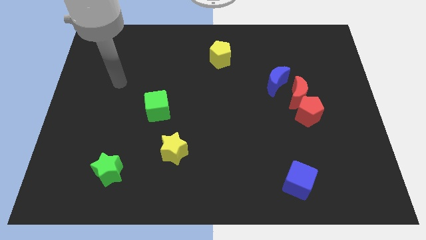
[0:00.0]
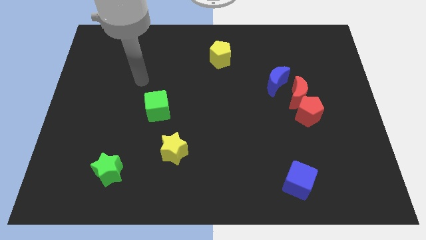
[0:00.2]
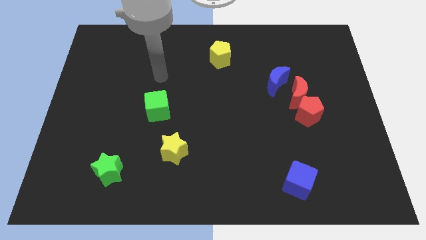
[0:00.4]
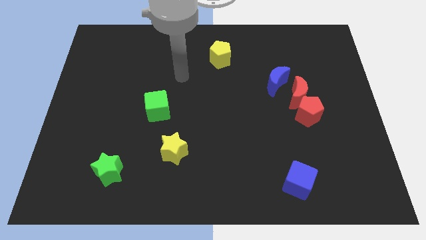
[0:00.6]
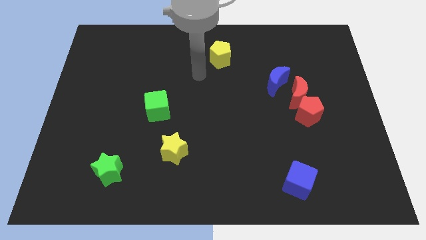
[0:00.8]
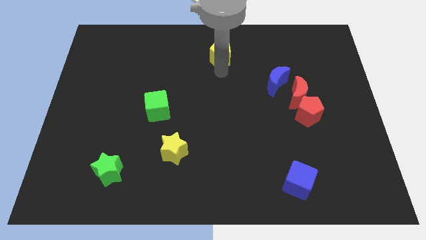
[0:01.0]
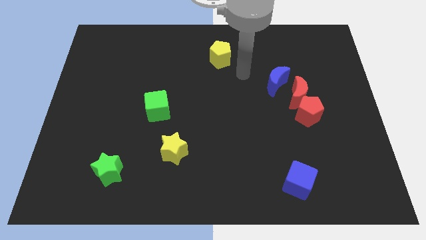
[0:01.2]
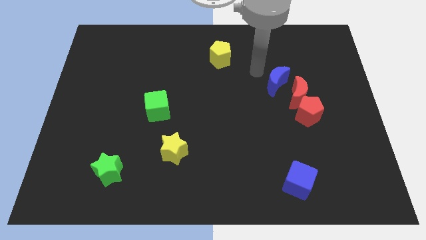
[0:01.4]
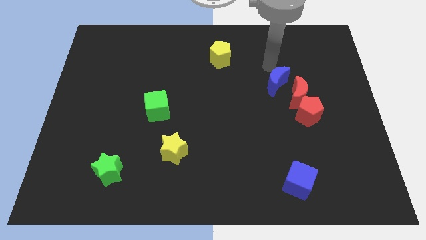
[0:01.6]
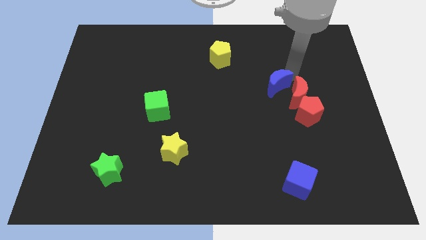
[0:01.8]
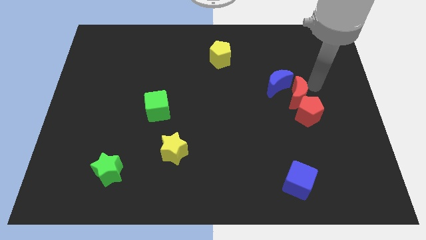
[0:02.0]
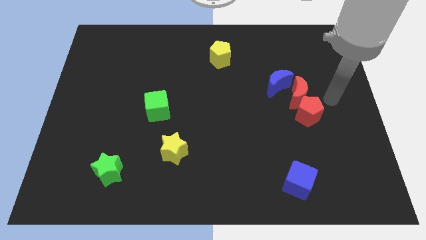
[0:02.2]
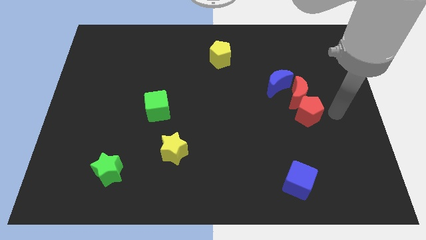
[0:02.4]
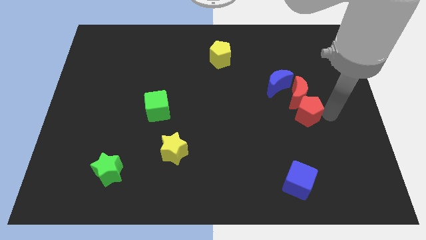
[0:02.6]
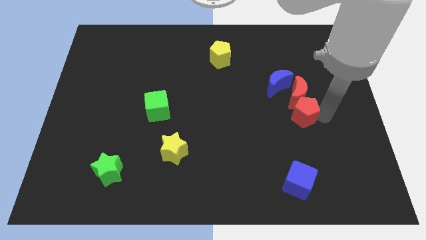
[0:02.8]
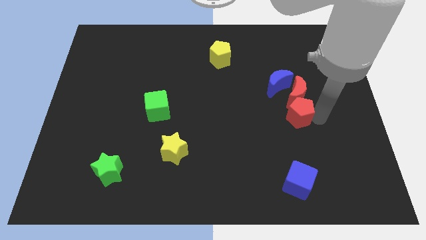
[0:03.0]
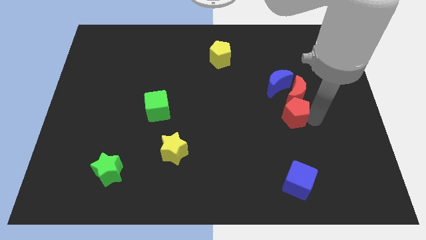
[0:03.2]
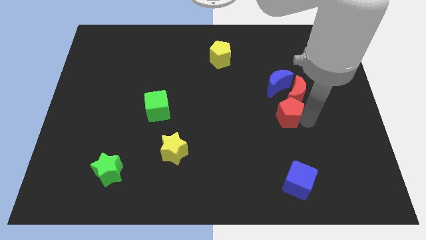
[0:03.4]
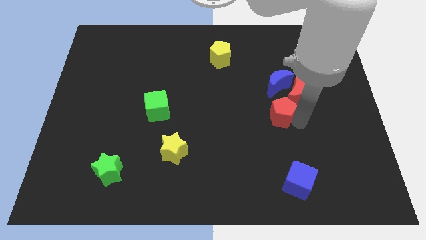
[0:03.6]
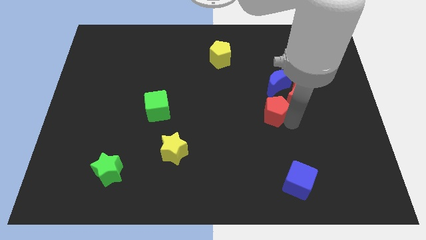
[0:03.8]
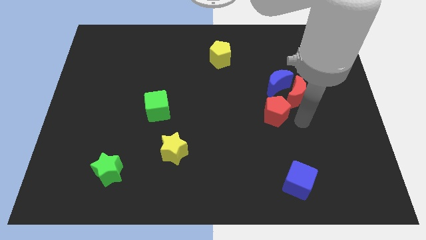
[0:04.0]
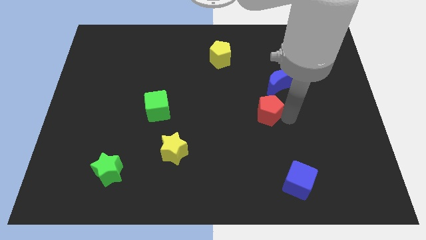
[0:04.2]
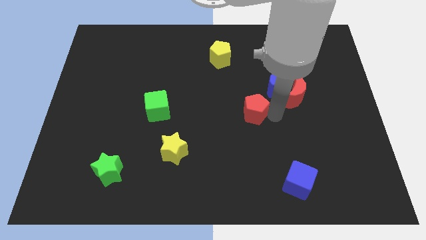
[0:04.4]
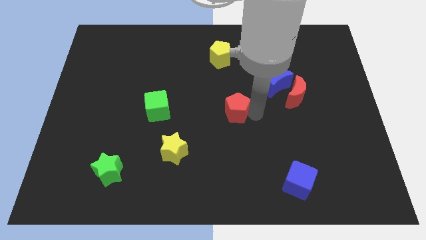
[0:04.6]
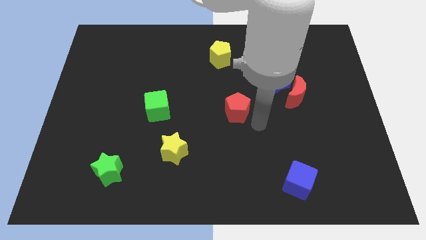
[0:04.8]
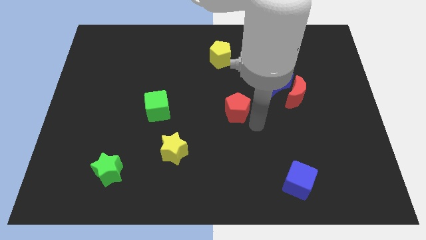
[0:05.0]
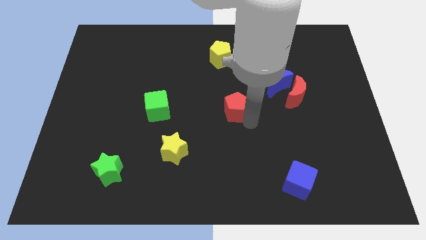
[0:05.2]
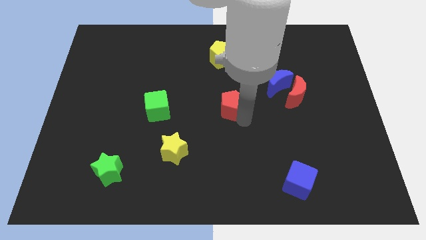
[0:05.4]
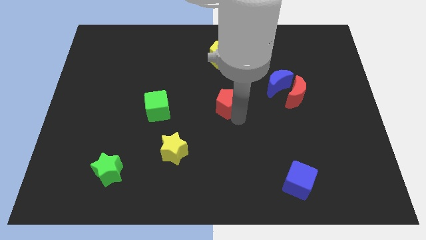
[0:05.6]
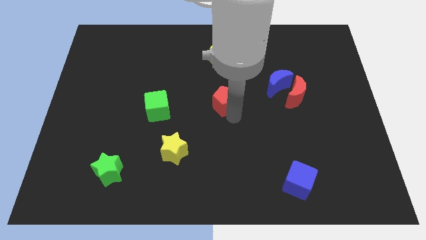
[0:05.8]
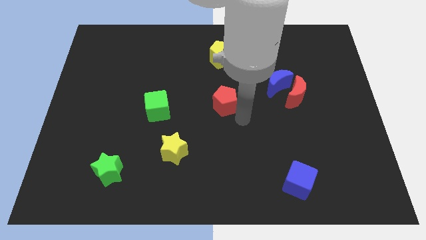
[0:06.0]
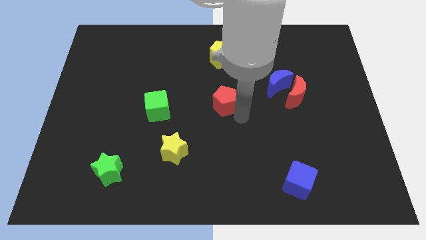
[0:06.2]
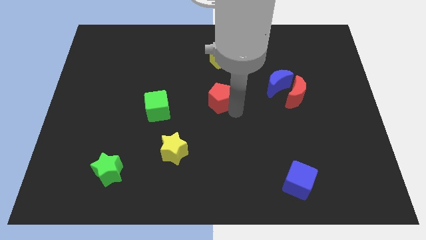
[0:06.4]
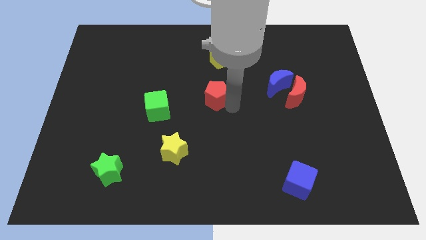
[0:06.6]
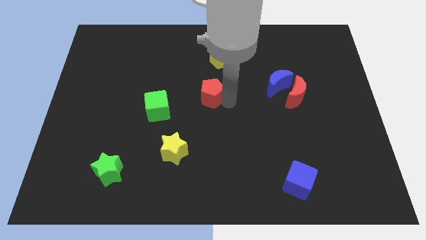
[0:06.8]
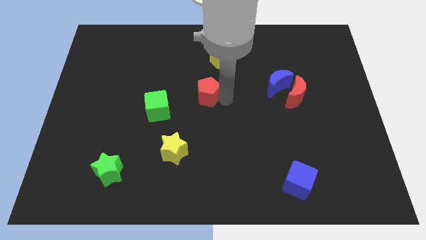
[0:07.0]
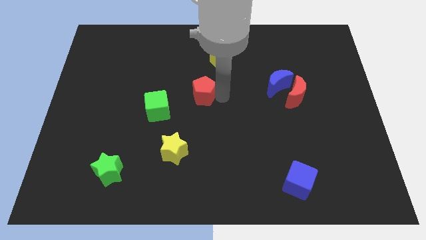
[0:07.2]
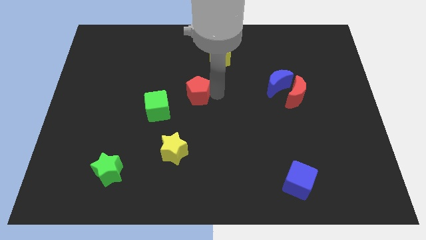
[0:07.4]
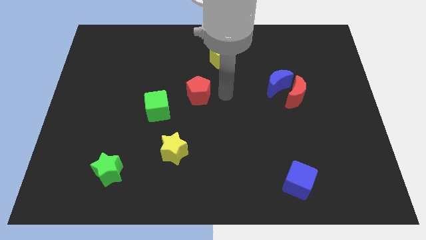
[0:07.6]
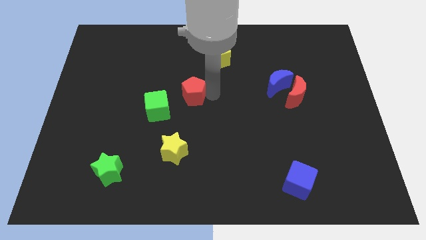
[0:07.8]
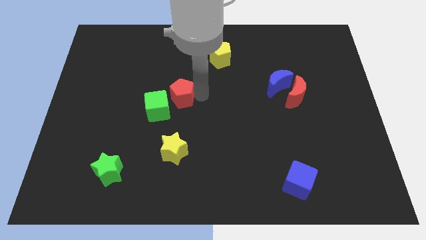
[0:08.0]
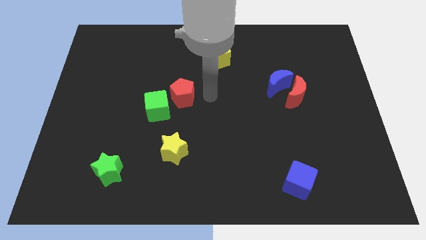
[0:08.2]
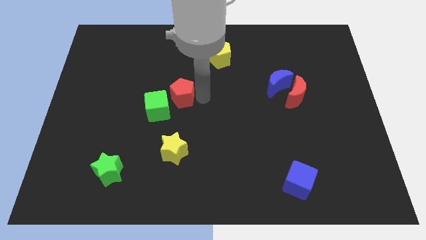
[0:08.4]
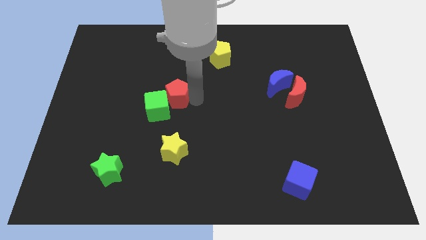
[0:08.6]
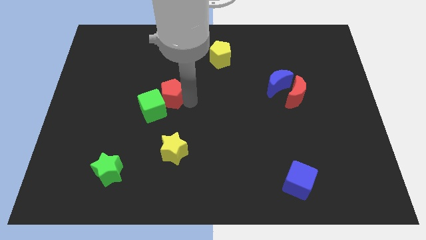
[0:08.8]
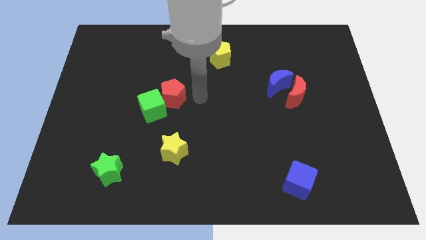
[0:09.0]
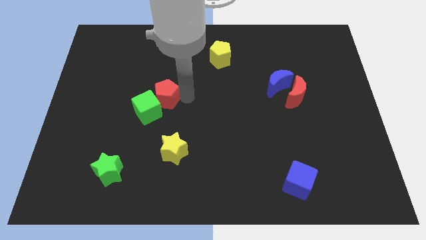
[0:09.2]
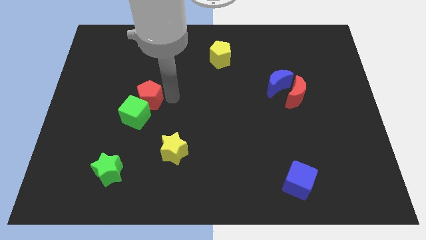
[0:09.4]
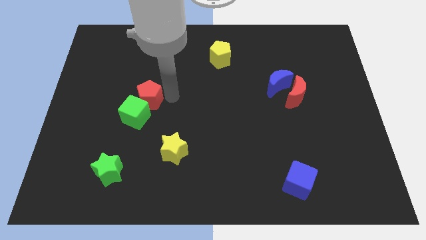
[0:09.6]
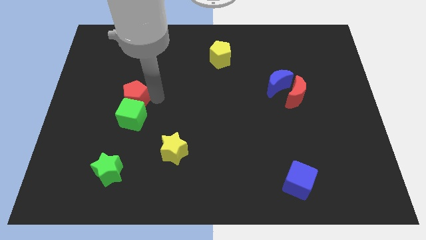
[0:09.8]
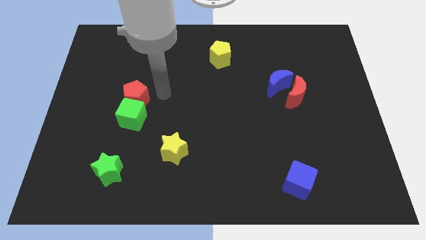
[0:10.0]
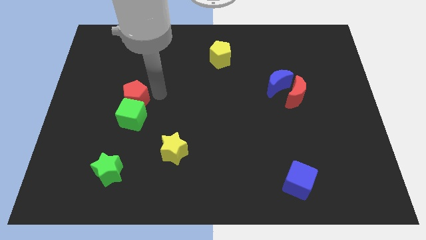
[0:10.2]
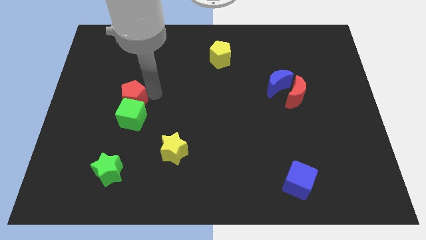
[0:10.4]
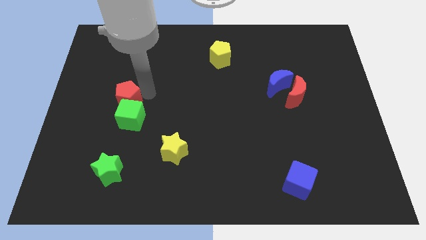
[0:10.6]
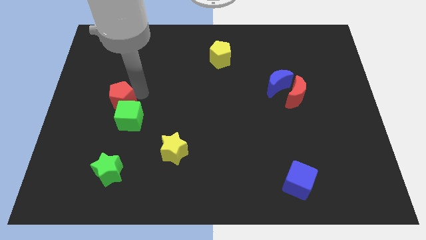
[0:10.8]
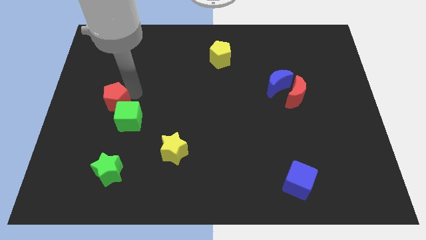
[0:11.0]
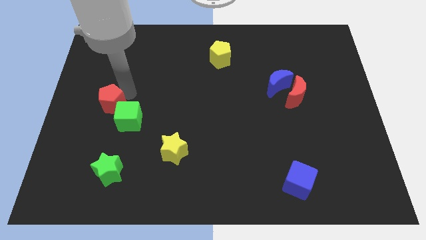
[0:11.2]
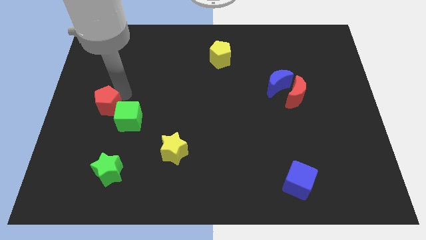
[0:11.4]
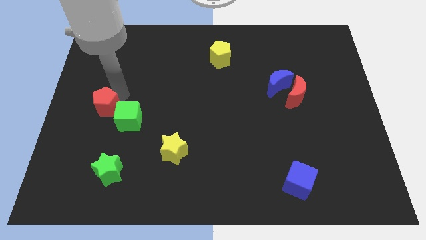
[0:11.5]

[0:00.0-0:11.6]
move the red pentagon to the left side

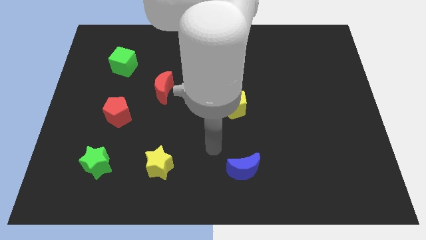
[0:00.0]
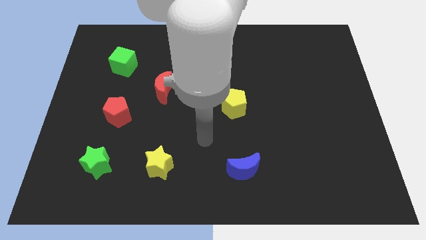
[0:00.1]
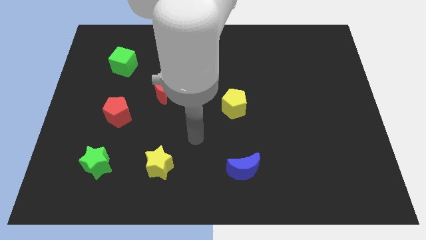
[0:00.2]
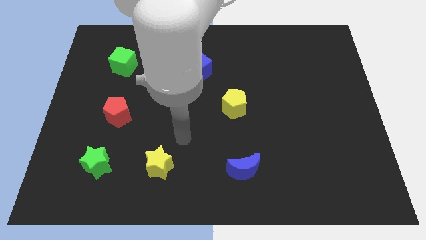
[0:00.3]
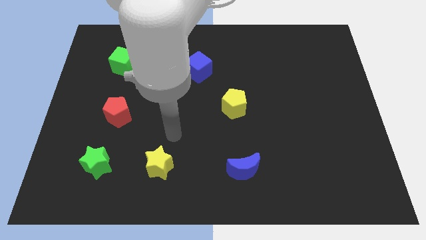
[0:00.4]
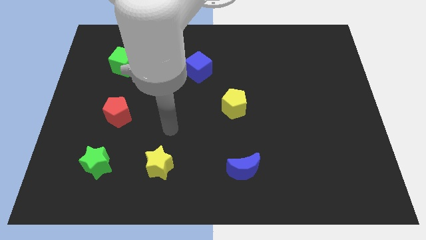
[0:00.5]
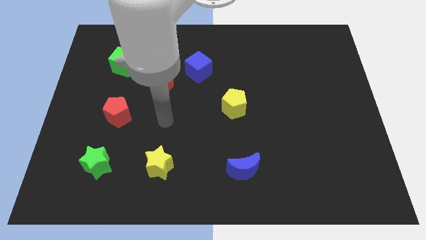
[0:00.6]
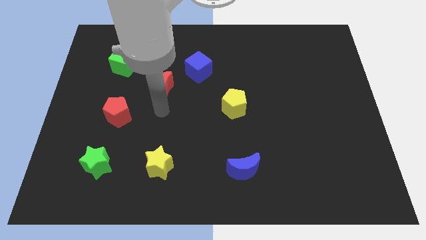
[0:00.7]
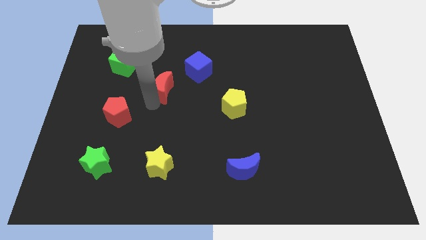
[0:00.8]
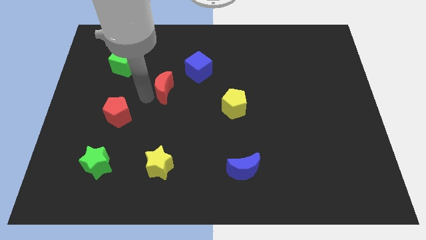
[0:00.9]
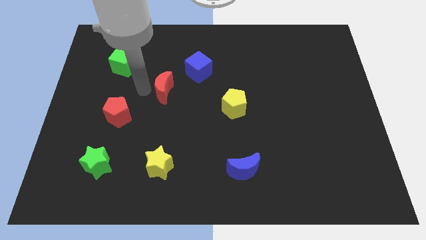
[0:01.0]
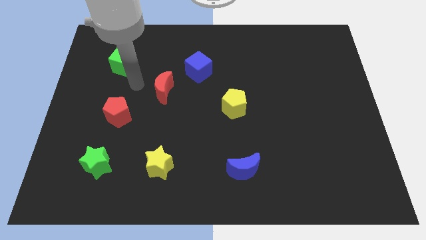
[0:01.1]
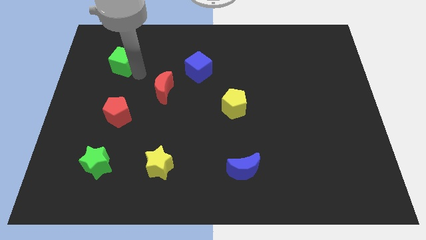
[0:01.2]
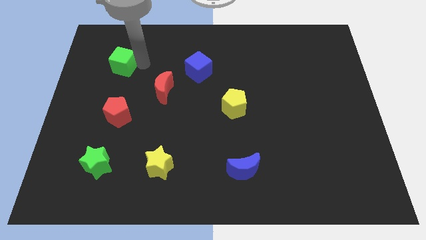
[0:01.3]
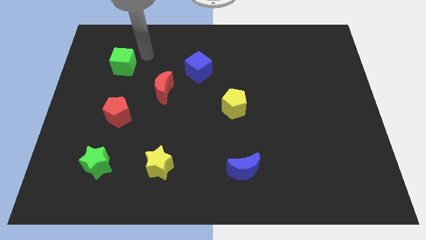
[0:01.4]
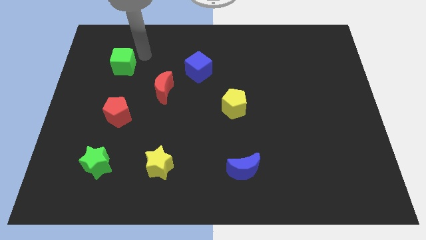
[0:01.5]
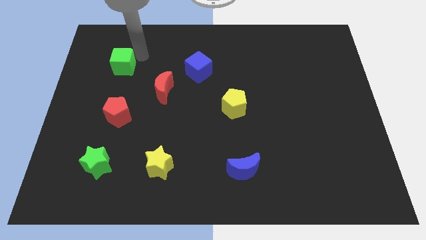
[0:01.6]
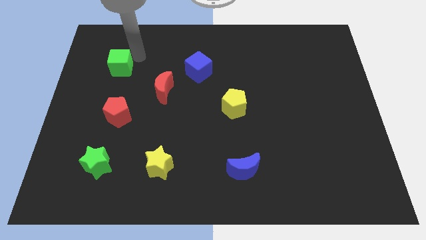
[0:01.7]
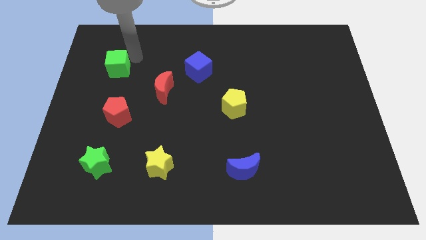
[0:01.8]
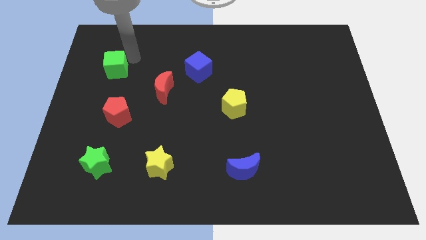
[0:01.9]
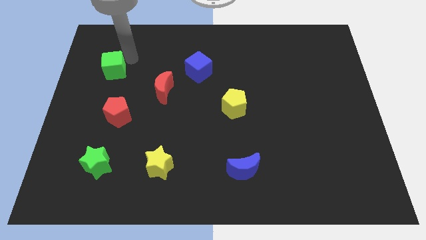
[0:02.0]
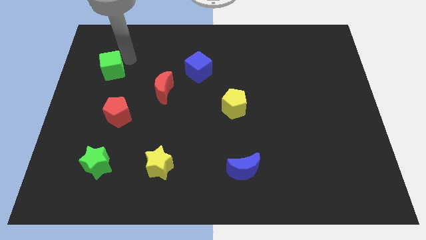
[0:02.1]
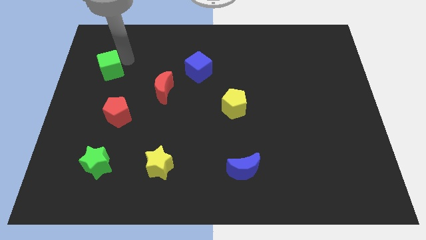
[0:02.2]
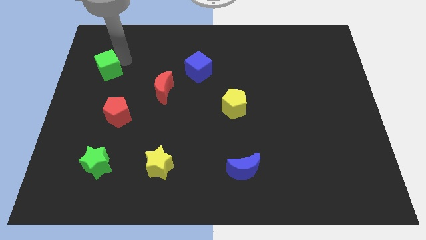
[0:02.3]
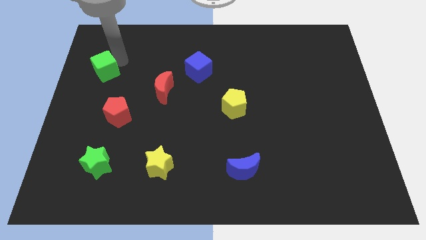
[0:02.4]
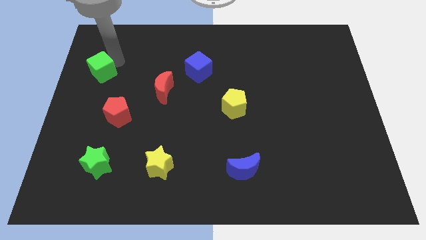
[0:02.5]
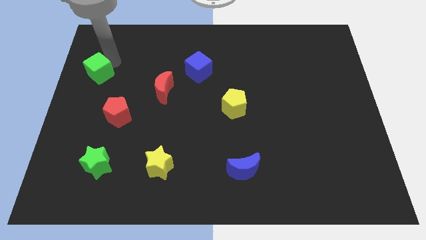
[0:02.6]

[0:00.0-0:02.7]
slide the green cube to the center left
